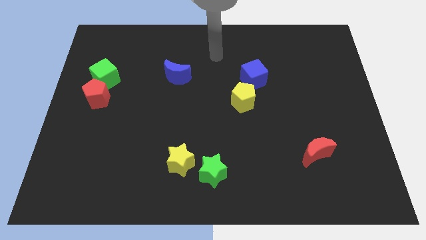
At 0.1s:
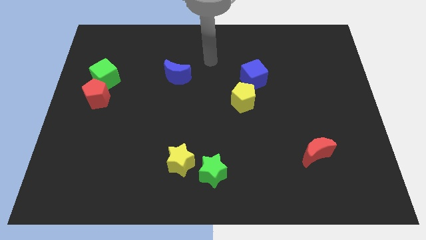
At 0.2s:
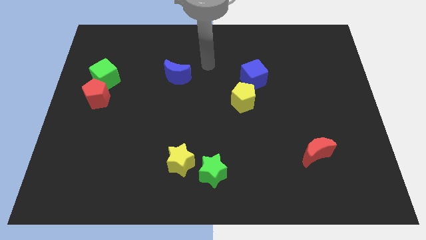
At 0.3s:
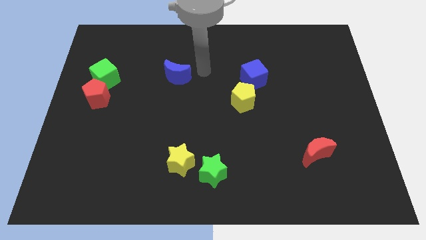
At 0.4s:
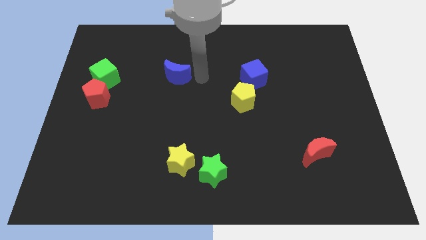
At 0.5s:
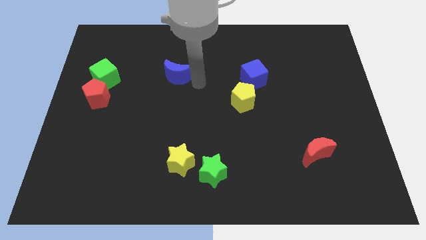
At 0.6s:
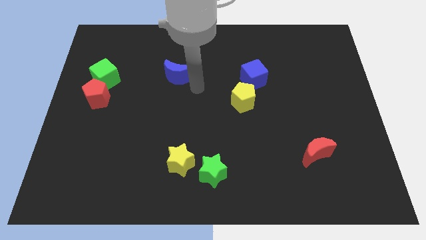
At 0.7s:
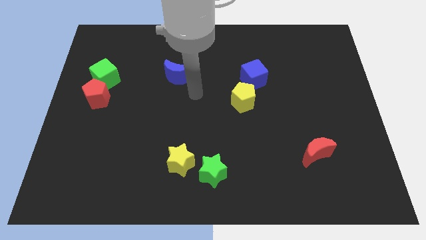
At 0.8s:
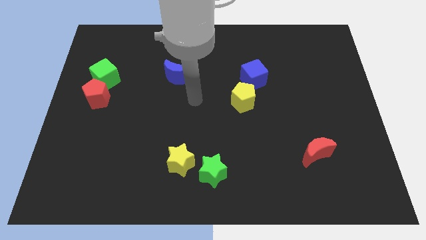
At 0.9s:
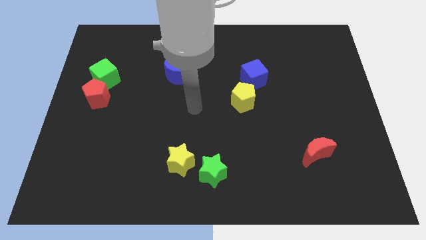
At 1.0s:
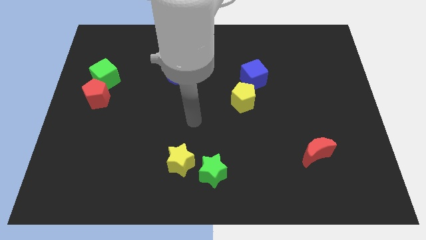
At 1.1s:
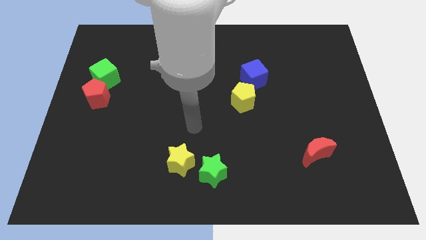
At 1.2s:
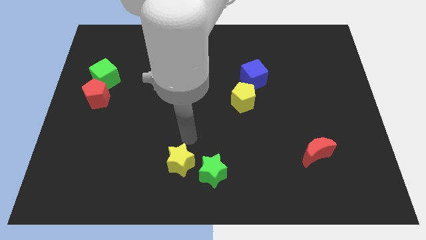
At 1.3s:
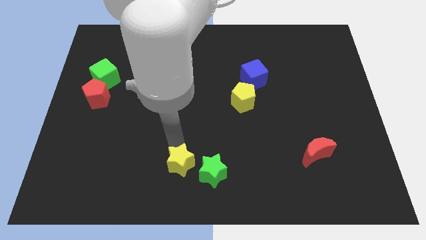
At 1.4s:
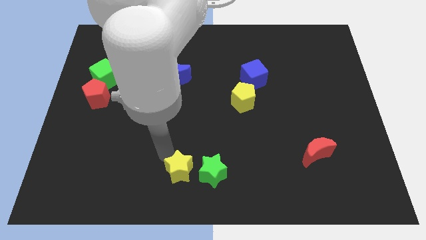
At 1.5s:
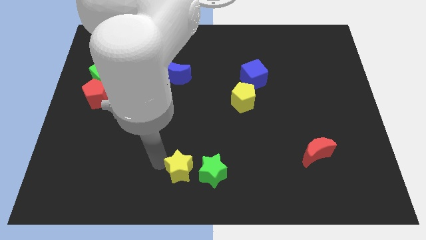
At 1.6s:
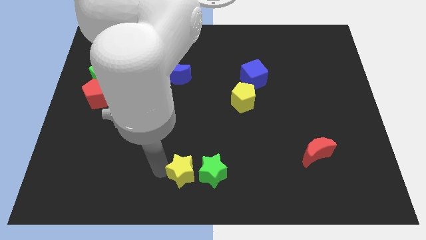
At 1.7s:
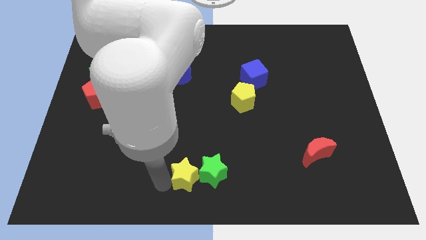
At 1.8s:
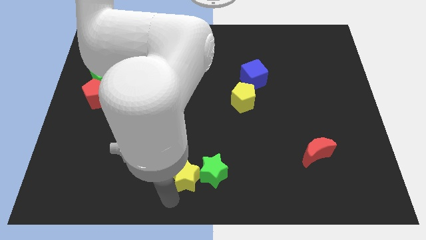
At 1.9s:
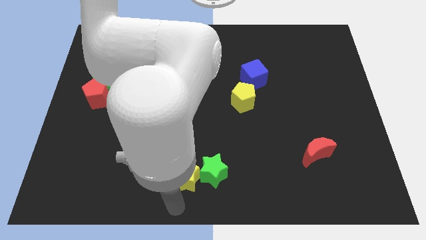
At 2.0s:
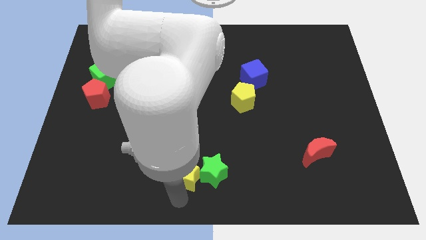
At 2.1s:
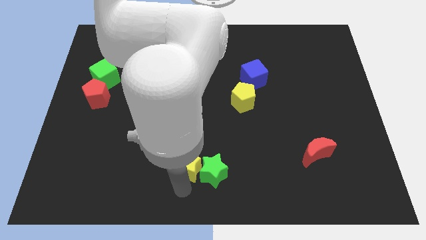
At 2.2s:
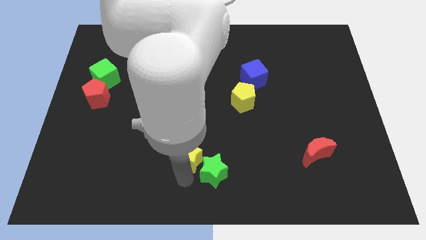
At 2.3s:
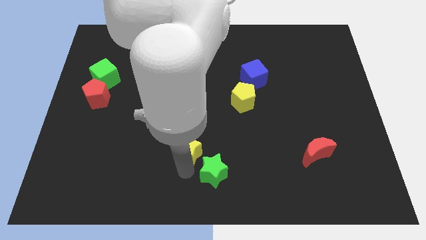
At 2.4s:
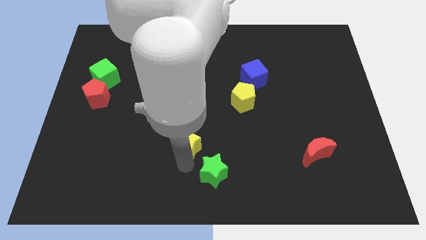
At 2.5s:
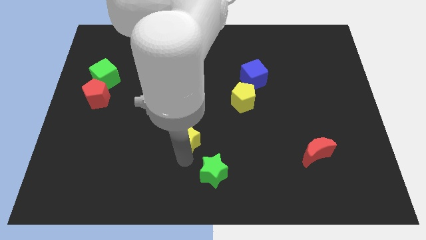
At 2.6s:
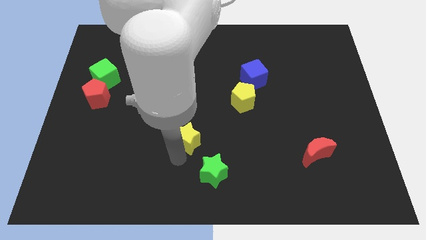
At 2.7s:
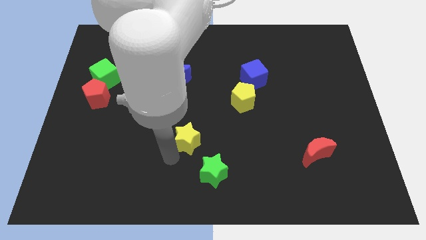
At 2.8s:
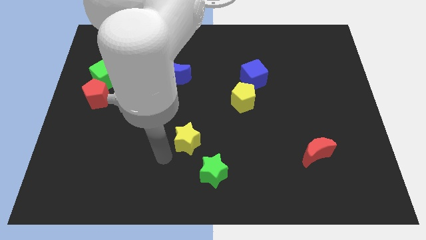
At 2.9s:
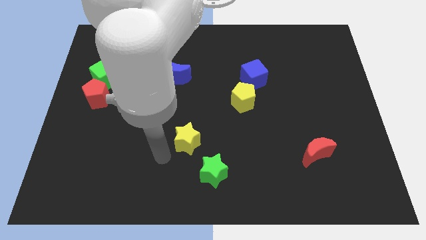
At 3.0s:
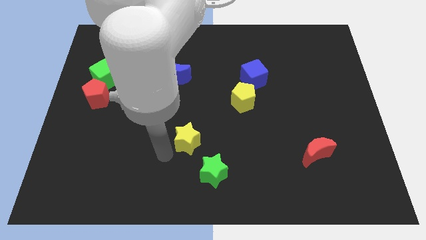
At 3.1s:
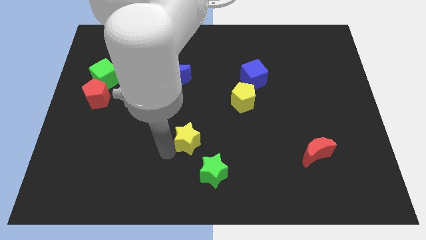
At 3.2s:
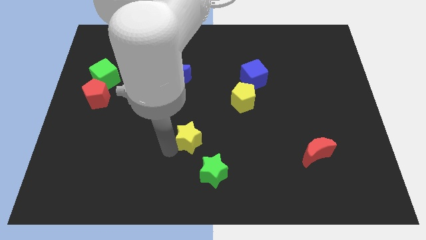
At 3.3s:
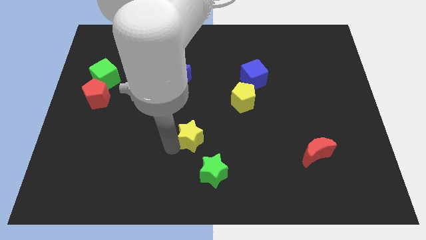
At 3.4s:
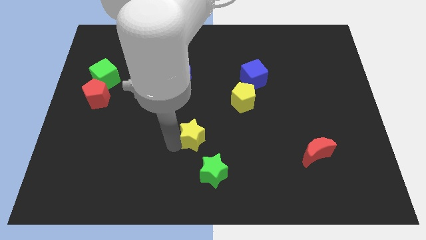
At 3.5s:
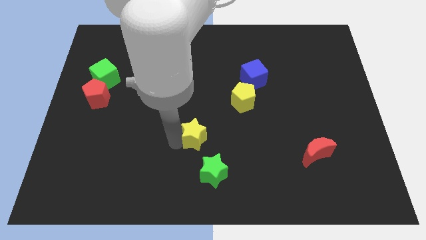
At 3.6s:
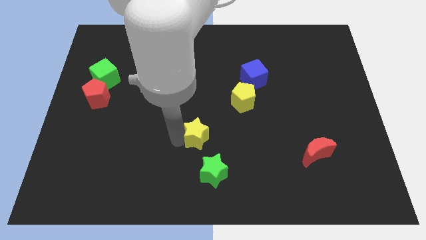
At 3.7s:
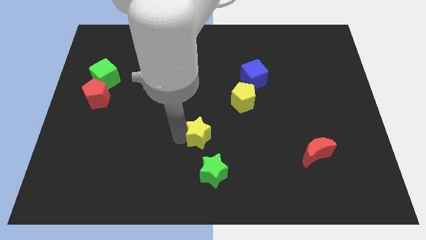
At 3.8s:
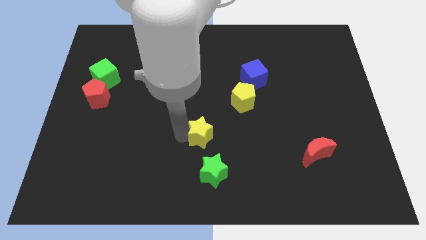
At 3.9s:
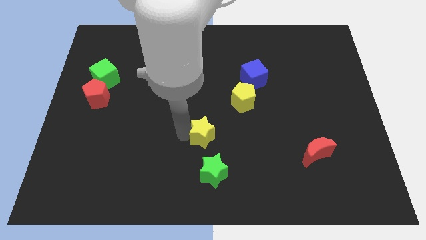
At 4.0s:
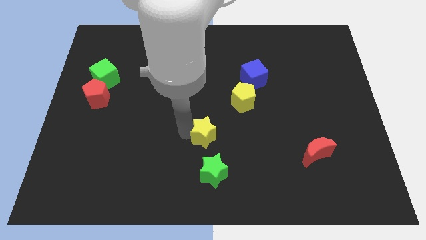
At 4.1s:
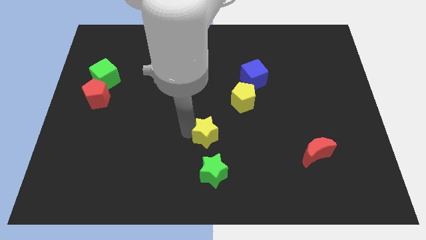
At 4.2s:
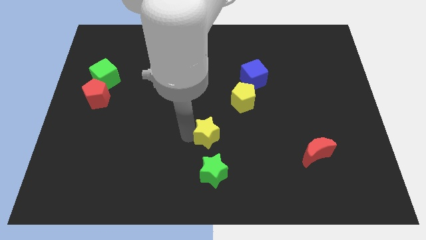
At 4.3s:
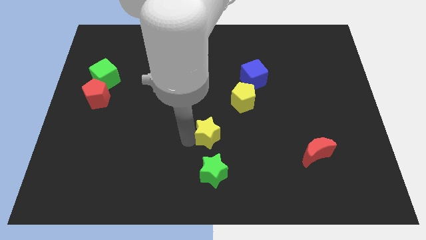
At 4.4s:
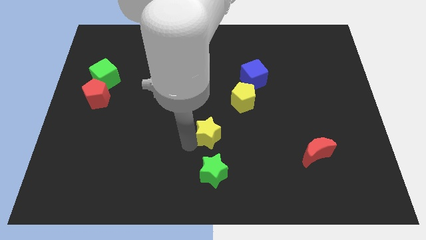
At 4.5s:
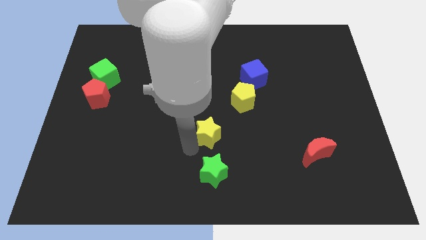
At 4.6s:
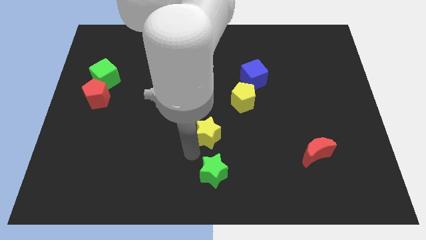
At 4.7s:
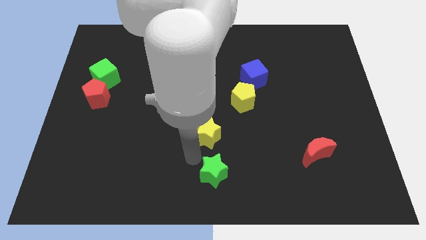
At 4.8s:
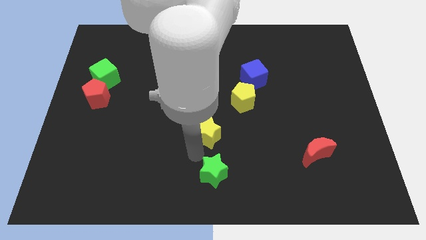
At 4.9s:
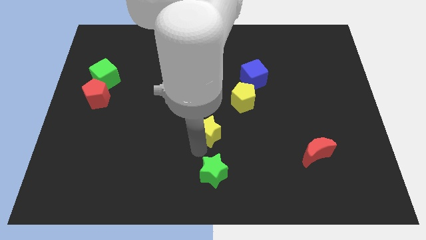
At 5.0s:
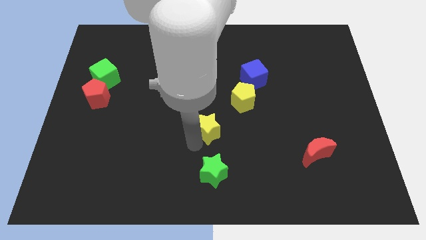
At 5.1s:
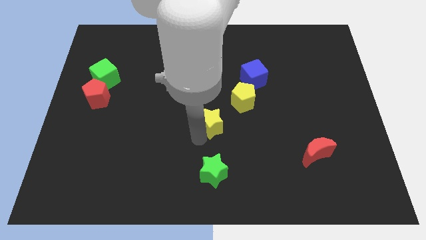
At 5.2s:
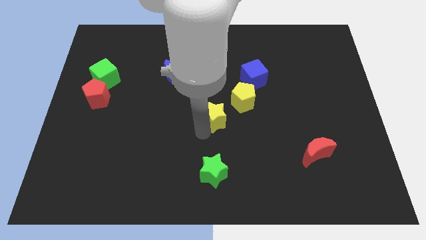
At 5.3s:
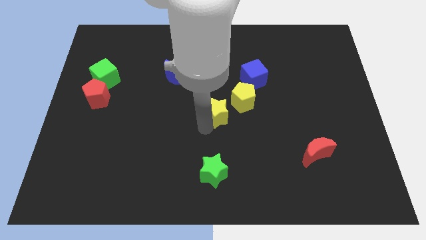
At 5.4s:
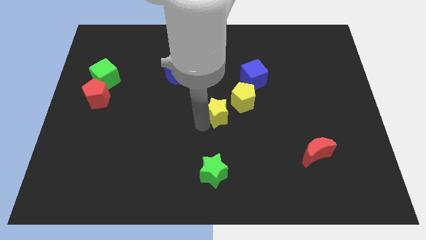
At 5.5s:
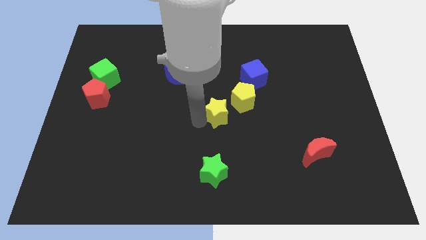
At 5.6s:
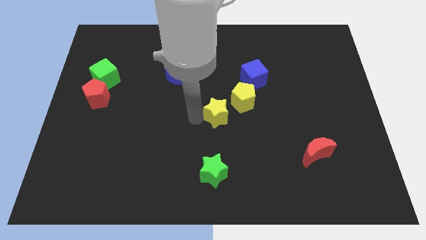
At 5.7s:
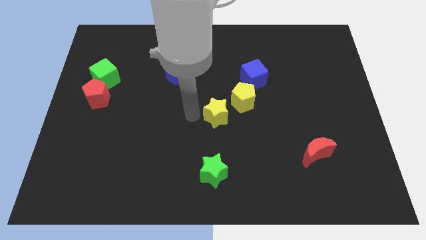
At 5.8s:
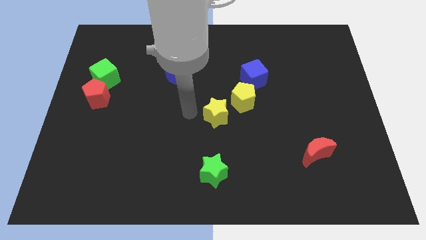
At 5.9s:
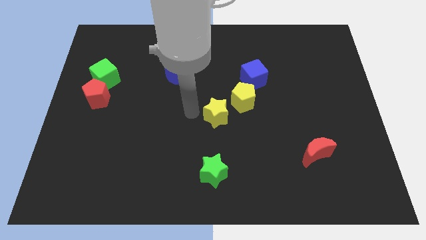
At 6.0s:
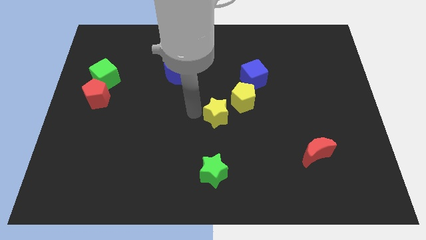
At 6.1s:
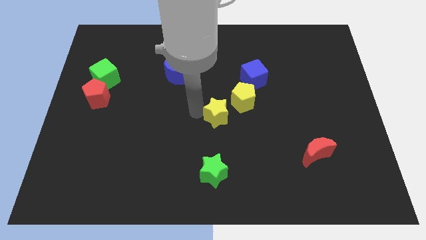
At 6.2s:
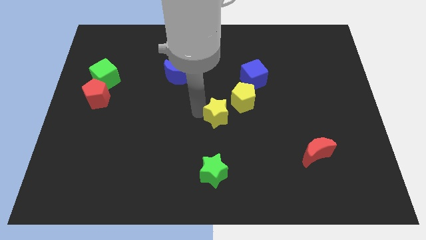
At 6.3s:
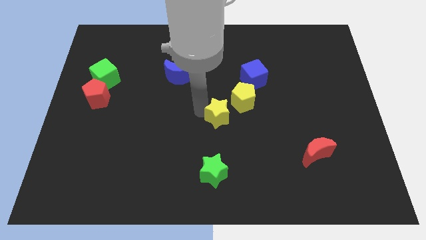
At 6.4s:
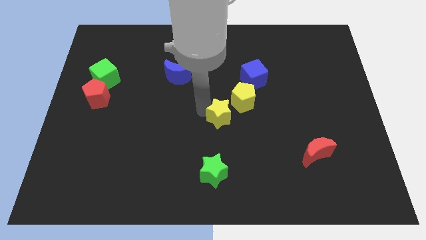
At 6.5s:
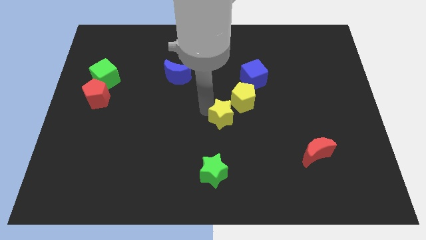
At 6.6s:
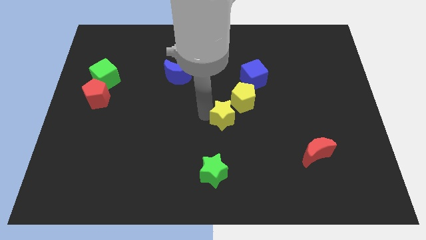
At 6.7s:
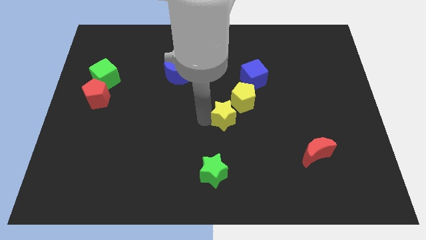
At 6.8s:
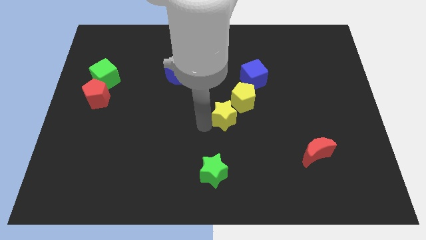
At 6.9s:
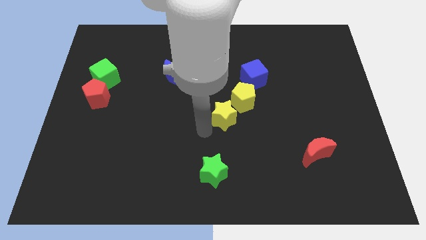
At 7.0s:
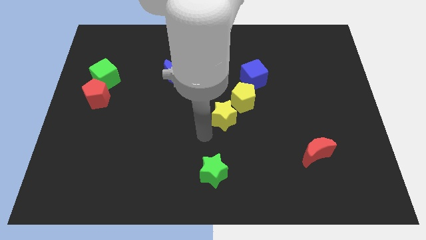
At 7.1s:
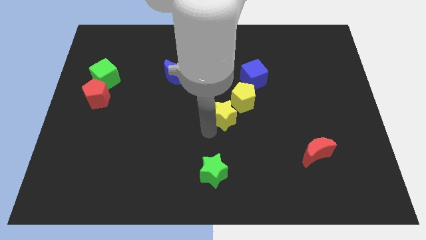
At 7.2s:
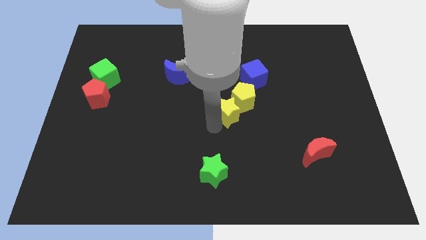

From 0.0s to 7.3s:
move the yellow star next to the yellow pentagon
